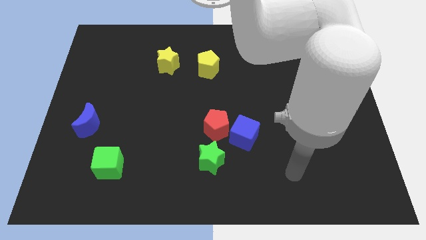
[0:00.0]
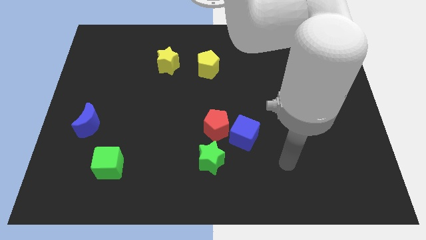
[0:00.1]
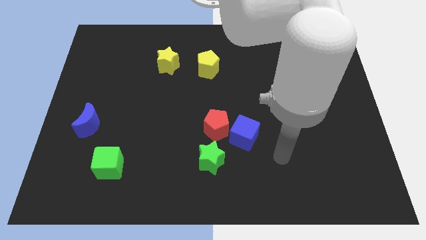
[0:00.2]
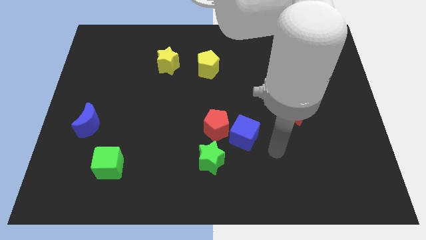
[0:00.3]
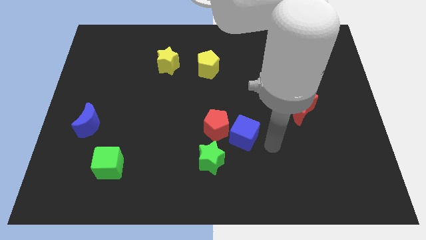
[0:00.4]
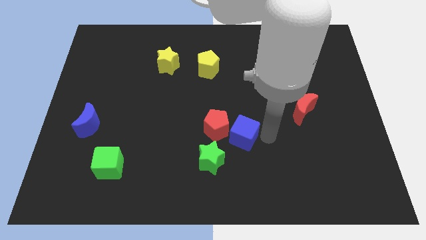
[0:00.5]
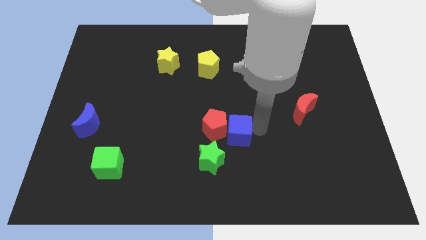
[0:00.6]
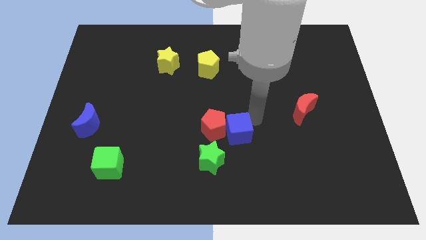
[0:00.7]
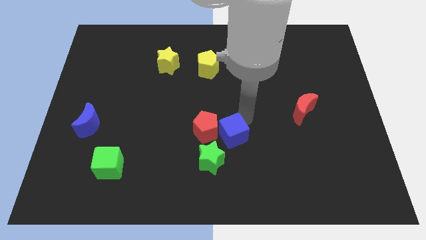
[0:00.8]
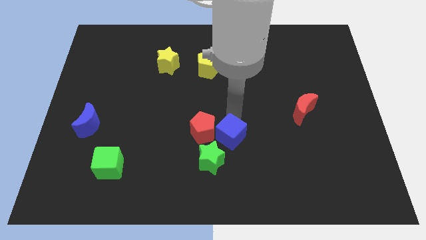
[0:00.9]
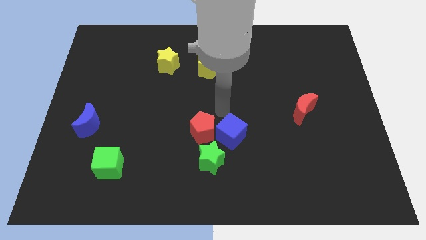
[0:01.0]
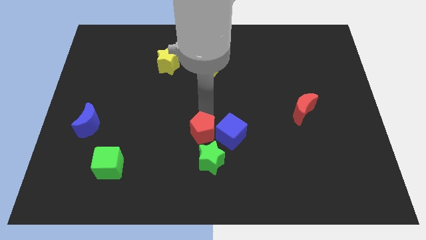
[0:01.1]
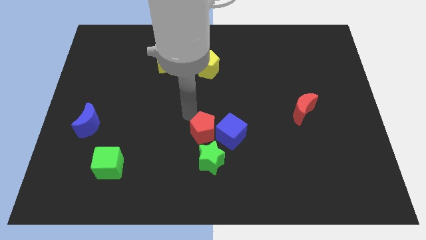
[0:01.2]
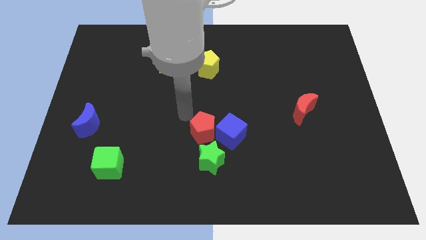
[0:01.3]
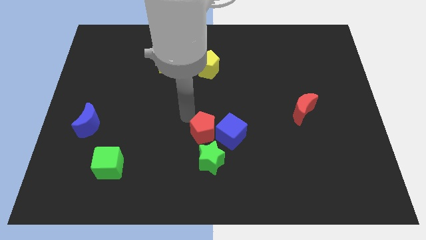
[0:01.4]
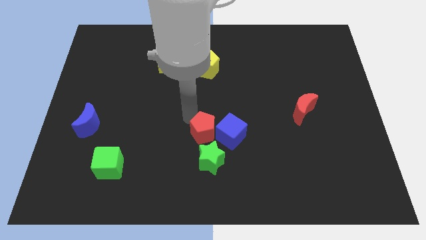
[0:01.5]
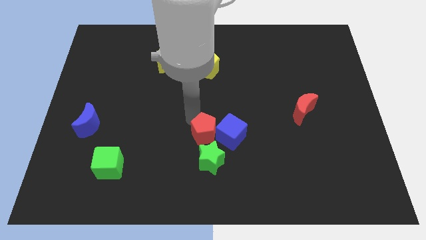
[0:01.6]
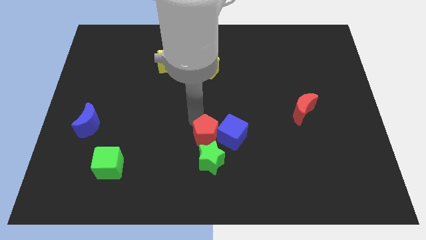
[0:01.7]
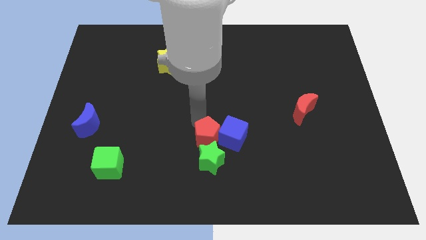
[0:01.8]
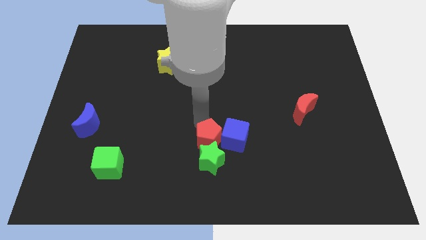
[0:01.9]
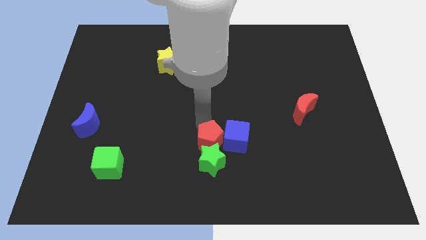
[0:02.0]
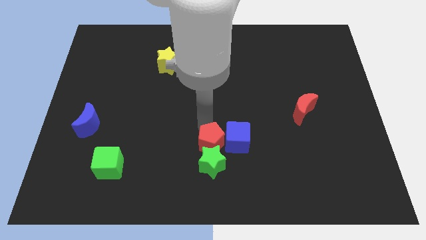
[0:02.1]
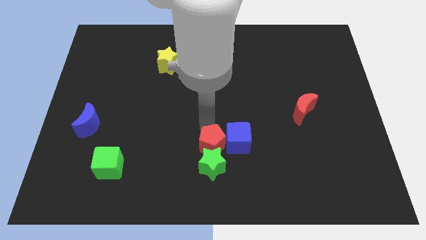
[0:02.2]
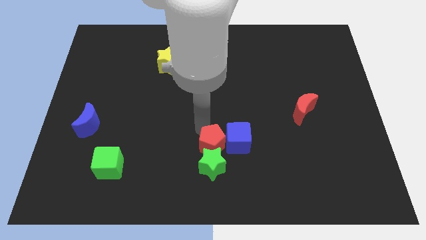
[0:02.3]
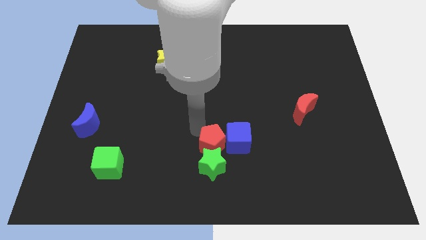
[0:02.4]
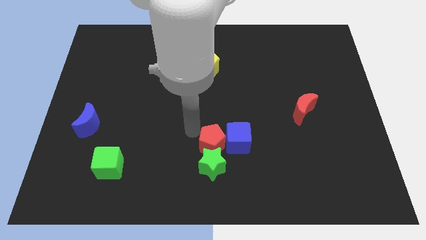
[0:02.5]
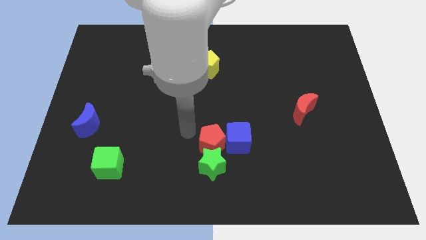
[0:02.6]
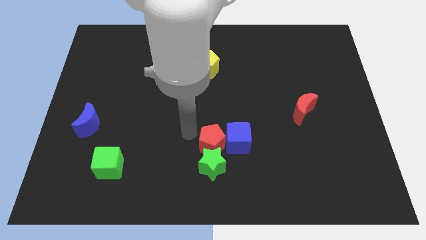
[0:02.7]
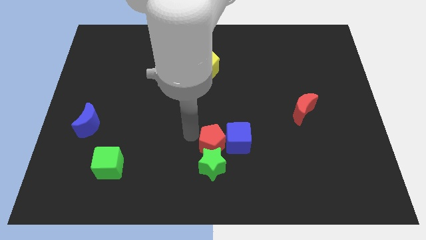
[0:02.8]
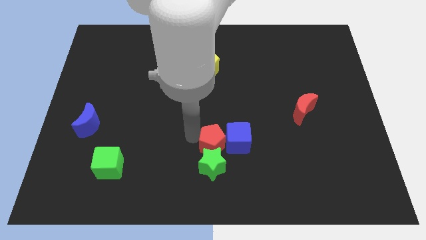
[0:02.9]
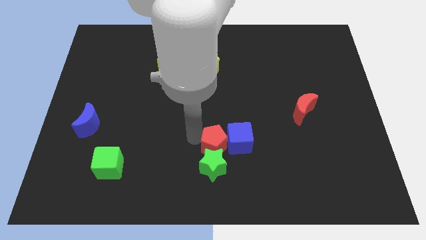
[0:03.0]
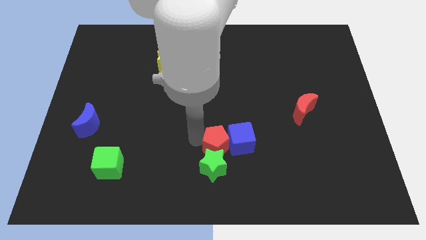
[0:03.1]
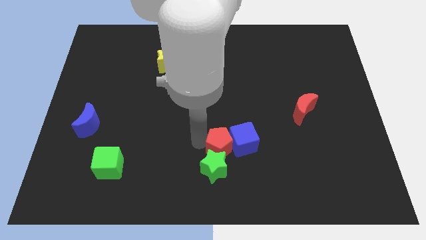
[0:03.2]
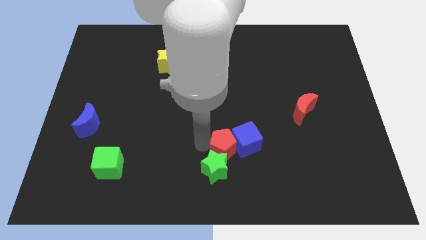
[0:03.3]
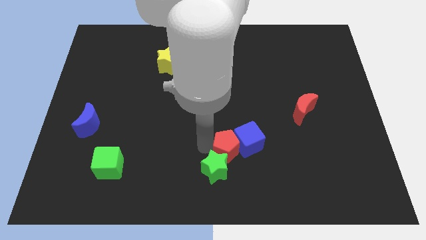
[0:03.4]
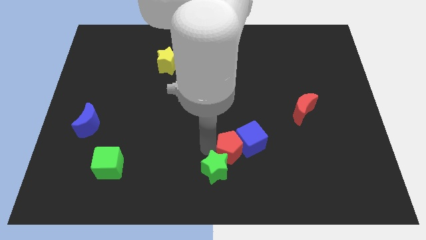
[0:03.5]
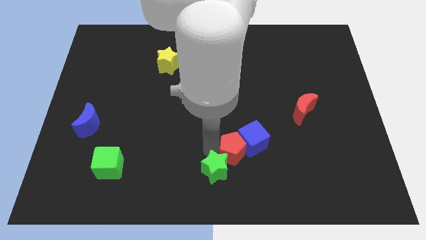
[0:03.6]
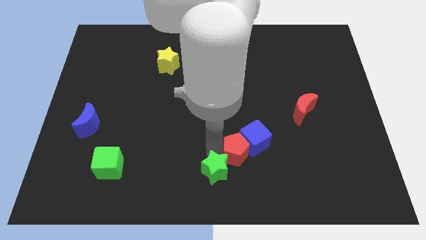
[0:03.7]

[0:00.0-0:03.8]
slightly push the red pentagon down and then to the right

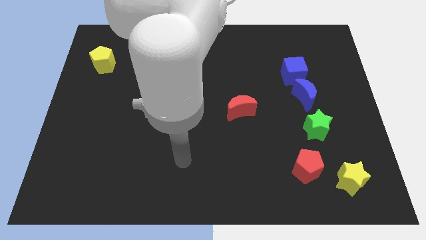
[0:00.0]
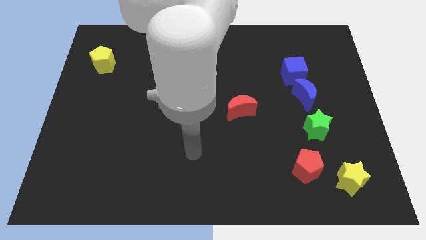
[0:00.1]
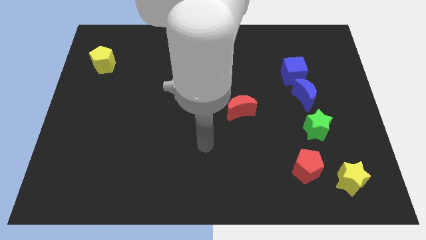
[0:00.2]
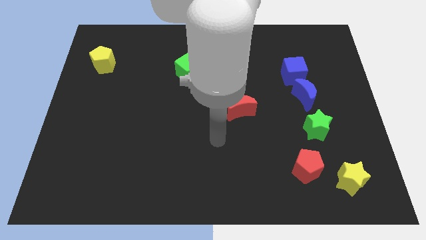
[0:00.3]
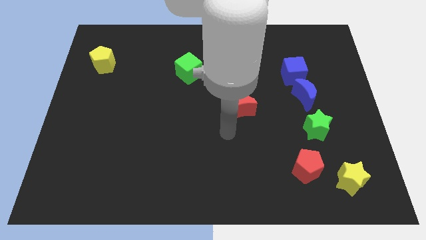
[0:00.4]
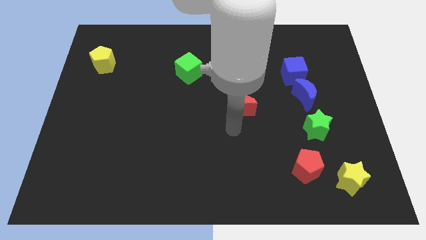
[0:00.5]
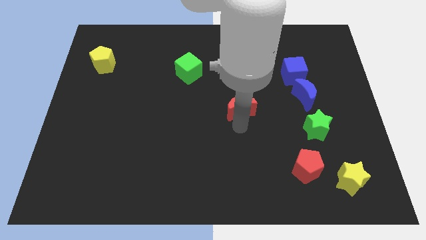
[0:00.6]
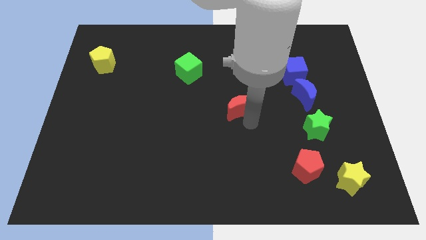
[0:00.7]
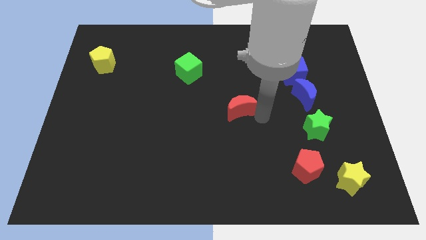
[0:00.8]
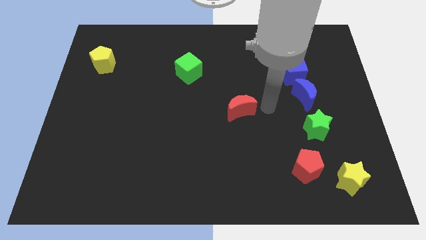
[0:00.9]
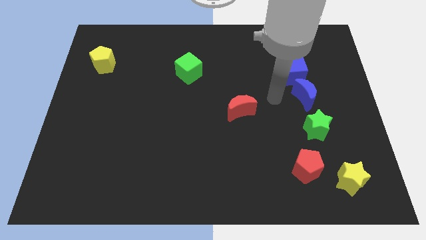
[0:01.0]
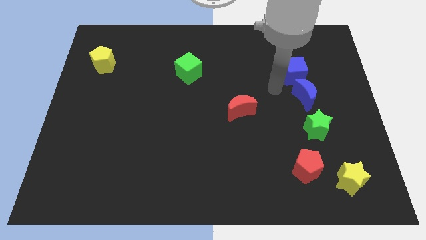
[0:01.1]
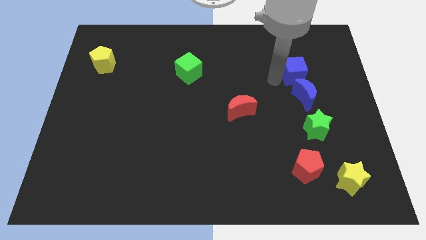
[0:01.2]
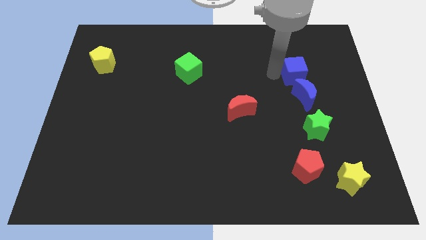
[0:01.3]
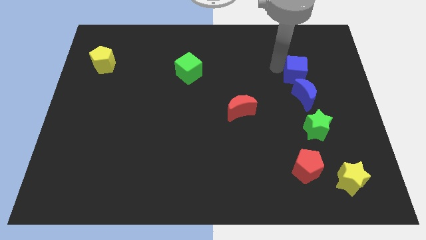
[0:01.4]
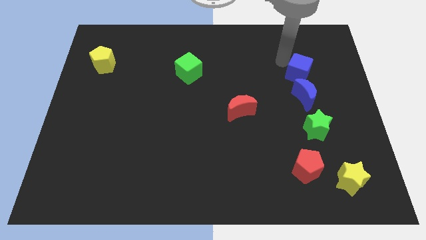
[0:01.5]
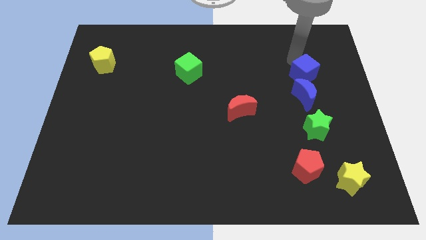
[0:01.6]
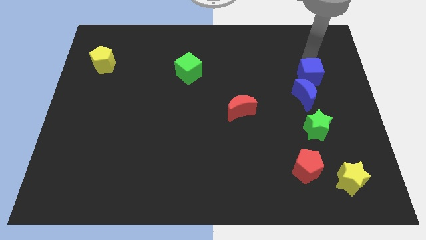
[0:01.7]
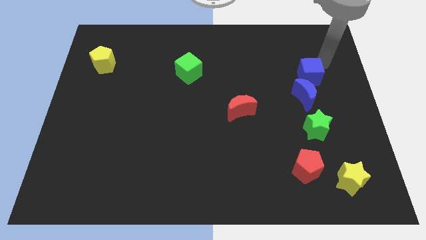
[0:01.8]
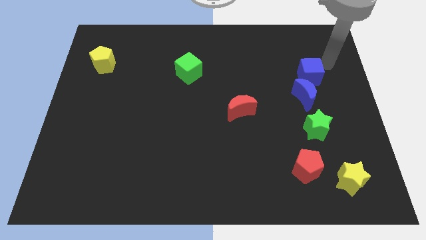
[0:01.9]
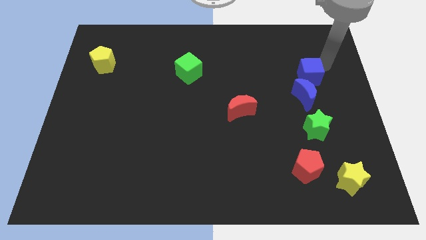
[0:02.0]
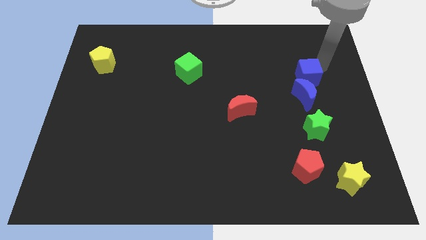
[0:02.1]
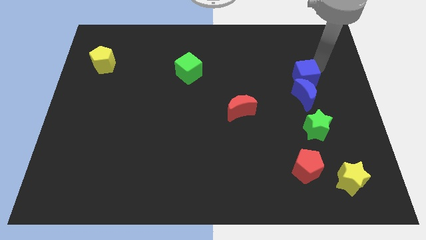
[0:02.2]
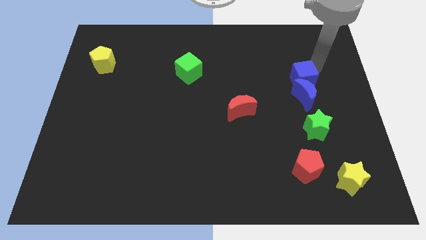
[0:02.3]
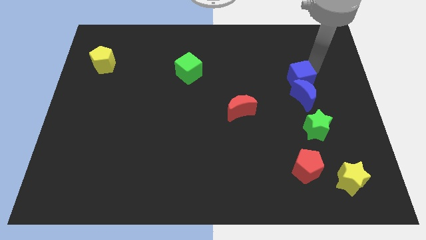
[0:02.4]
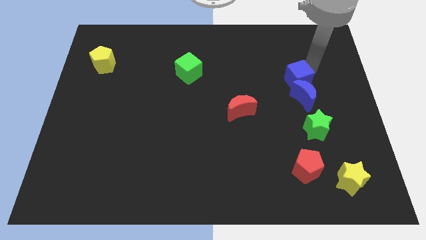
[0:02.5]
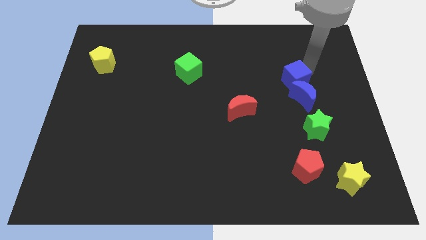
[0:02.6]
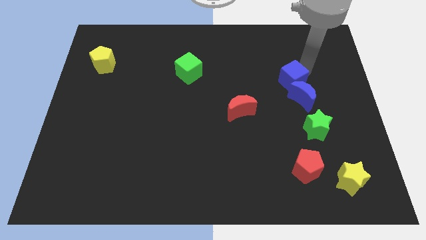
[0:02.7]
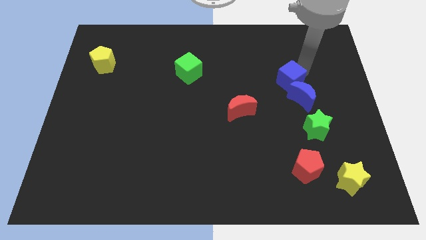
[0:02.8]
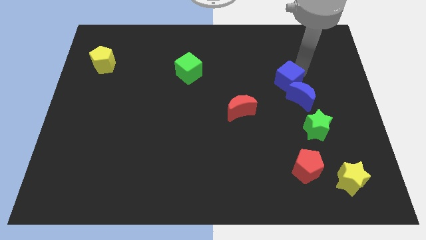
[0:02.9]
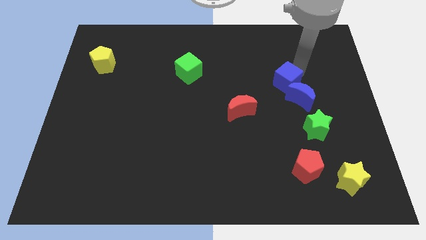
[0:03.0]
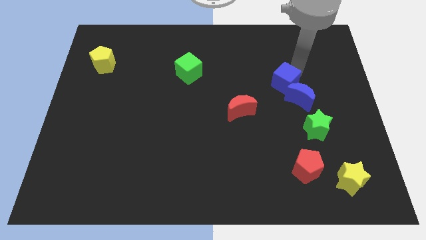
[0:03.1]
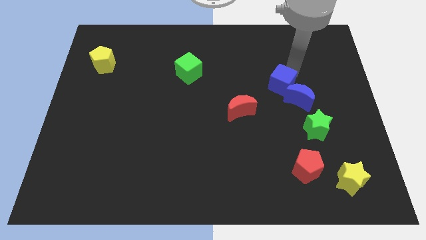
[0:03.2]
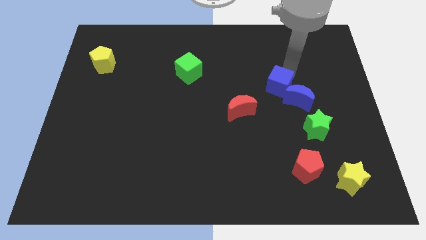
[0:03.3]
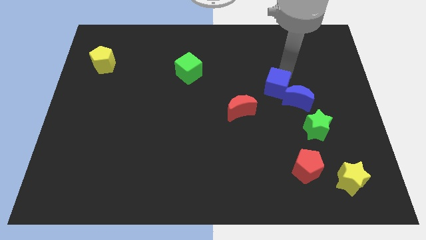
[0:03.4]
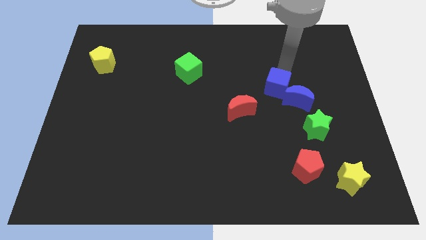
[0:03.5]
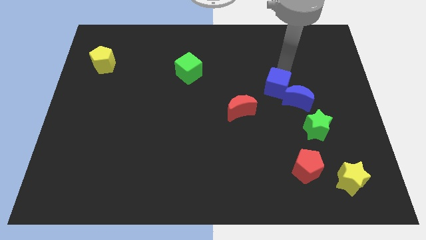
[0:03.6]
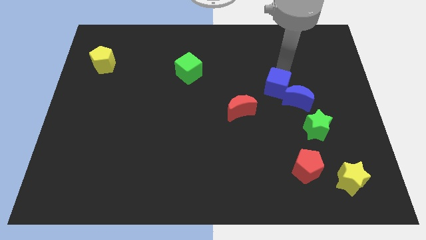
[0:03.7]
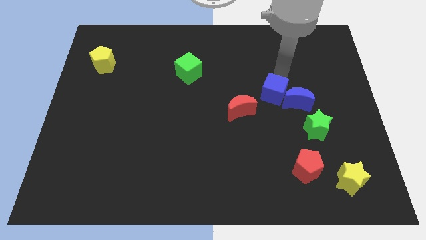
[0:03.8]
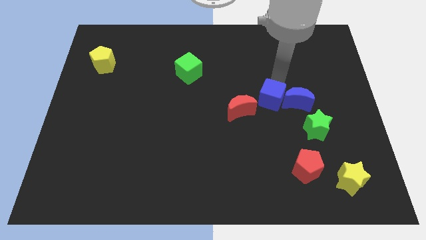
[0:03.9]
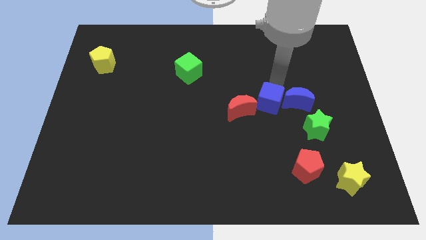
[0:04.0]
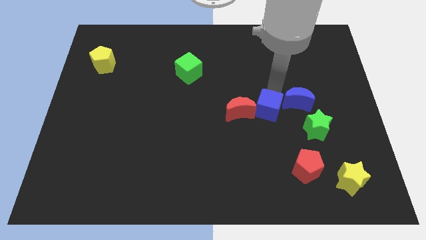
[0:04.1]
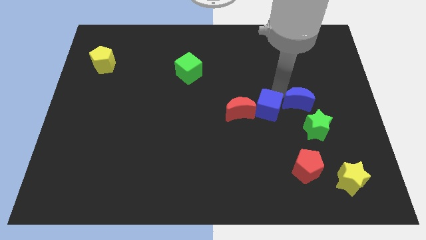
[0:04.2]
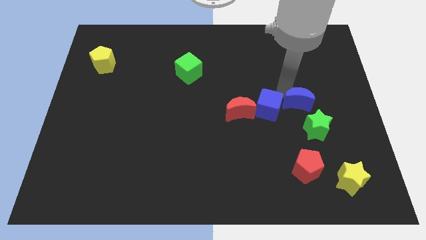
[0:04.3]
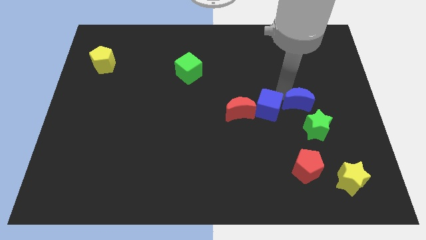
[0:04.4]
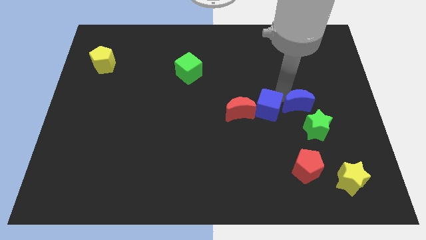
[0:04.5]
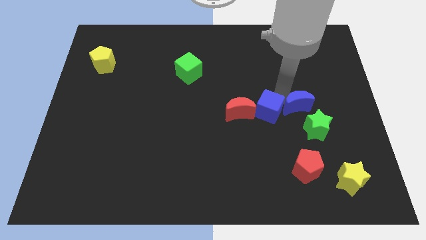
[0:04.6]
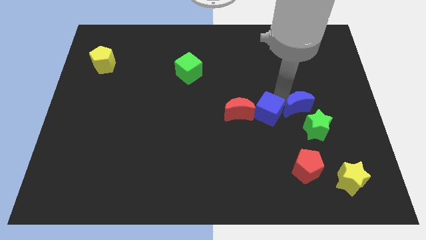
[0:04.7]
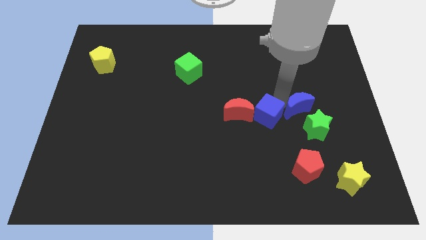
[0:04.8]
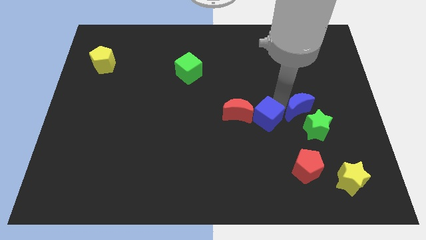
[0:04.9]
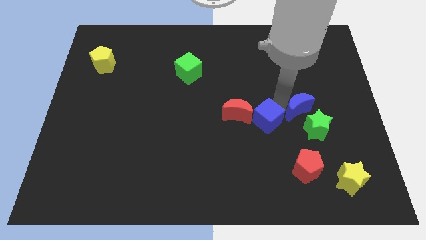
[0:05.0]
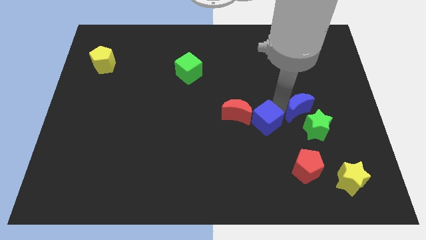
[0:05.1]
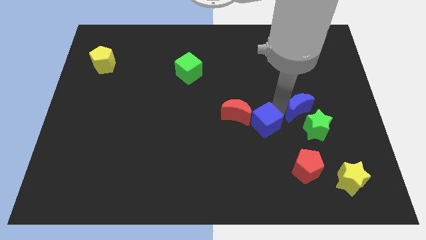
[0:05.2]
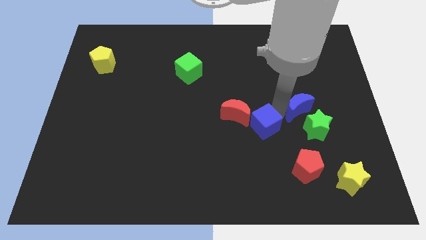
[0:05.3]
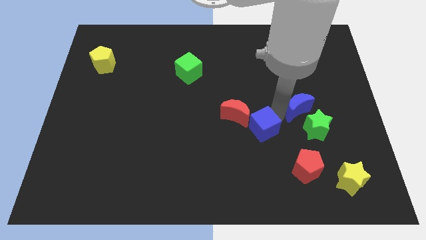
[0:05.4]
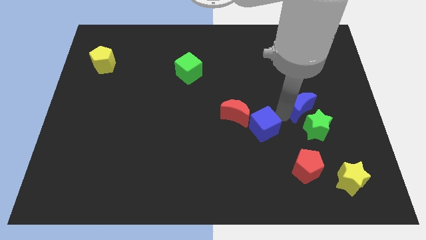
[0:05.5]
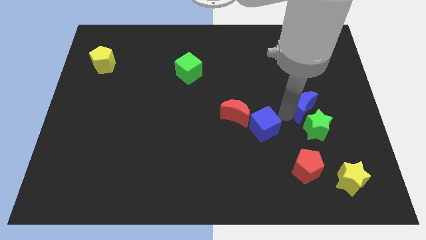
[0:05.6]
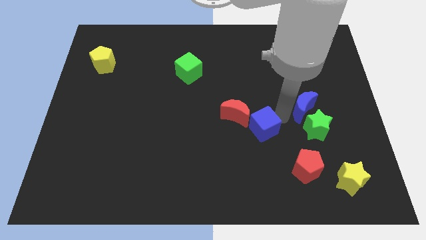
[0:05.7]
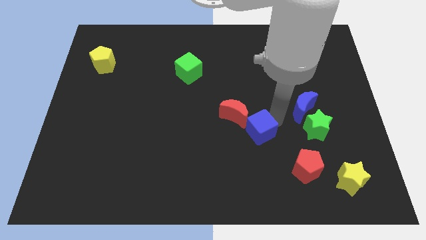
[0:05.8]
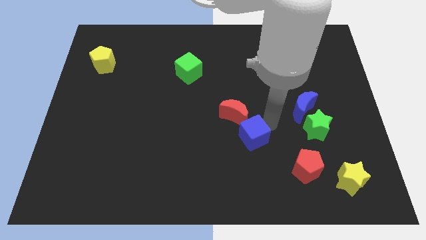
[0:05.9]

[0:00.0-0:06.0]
move the blue cube downwards and then to the left
